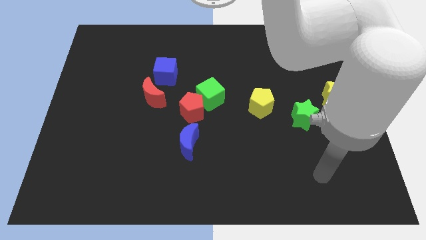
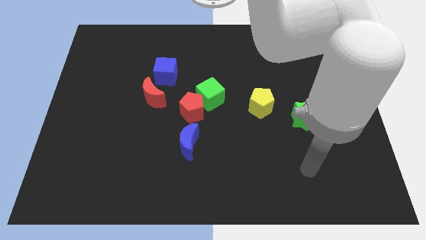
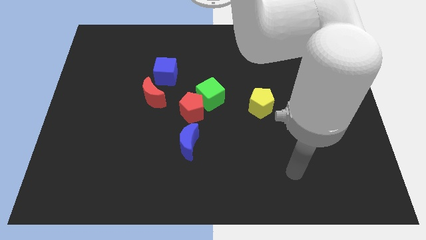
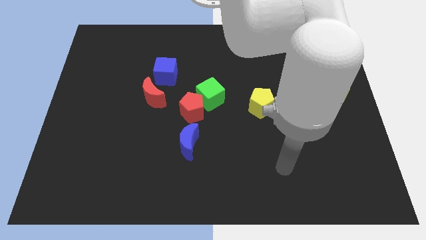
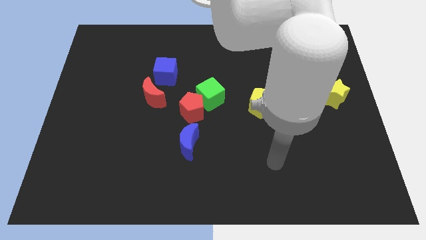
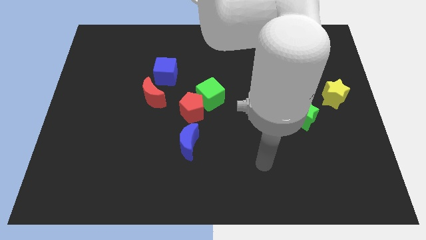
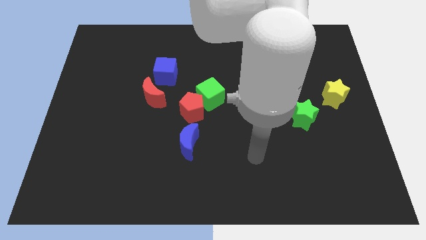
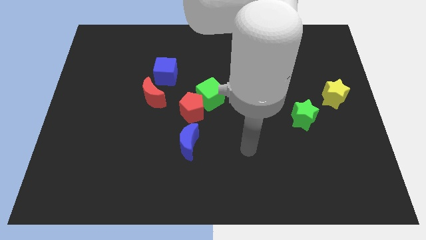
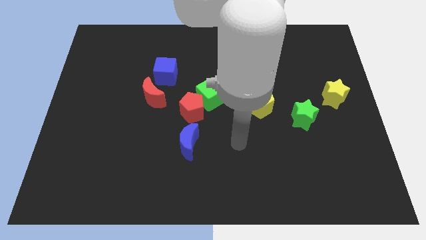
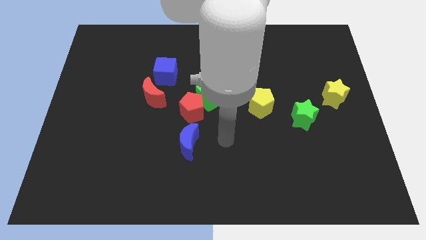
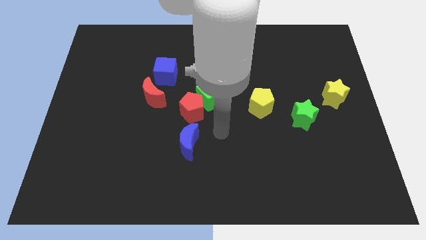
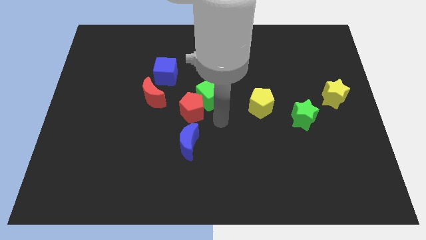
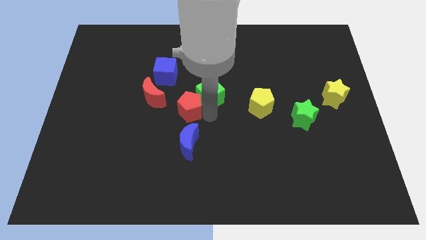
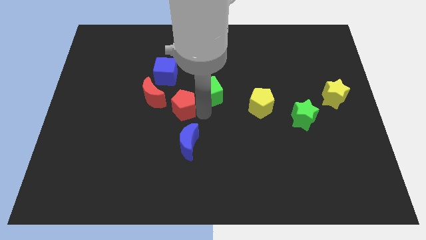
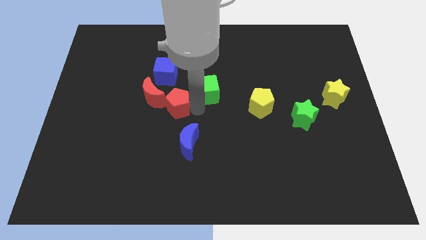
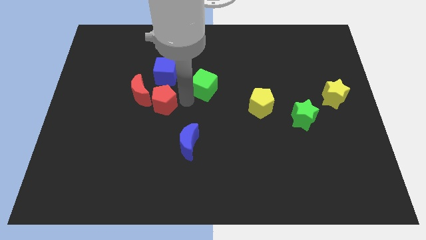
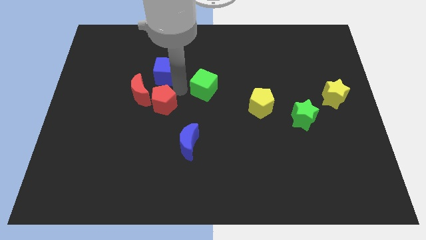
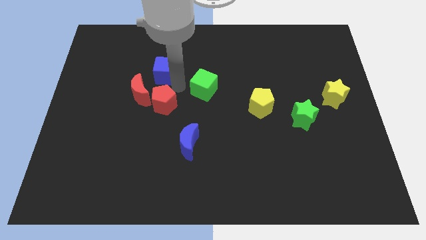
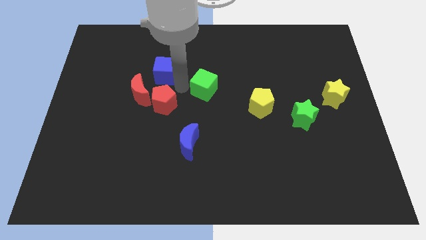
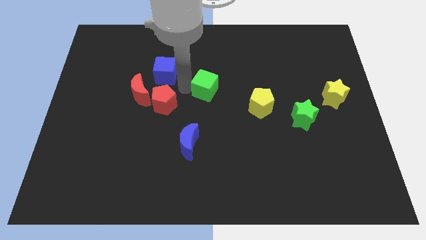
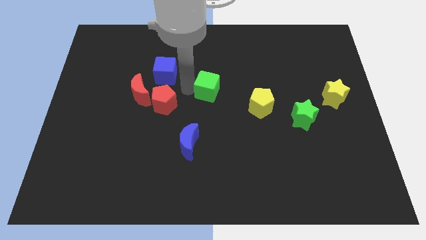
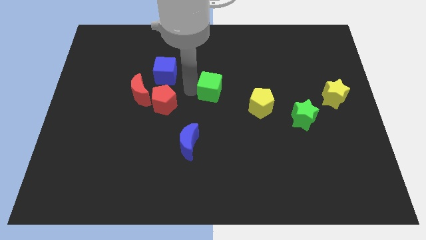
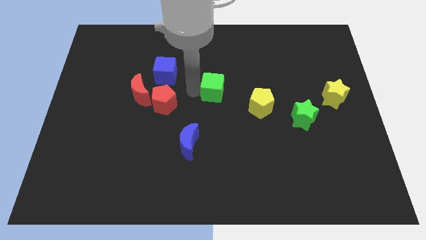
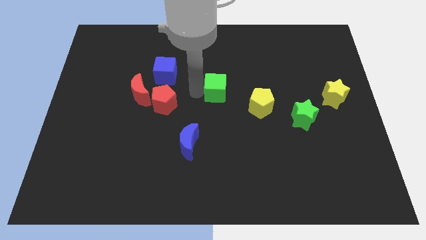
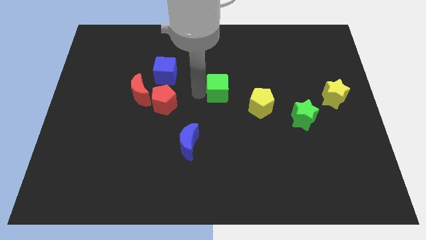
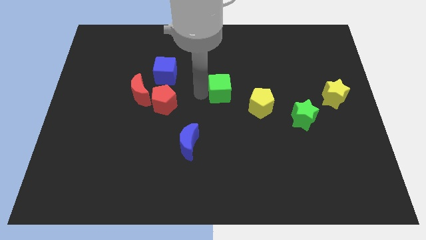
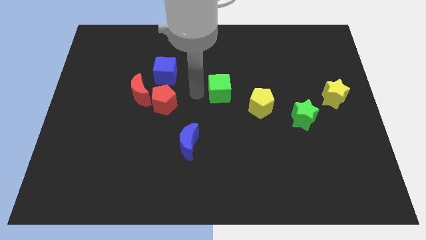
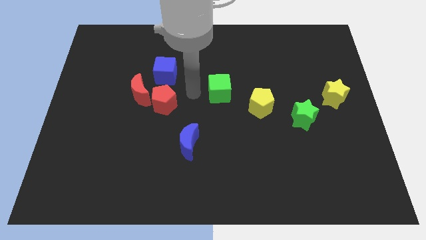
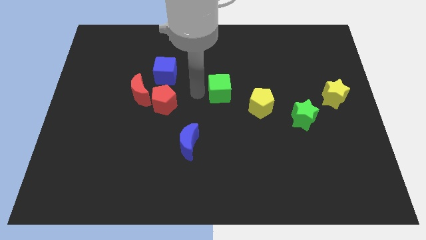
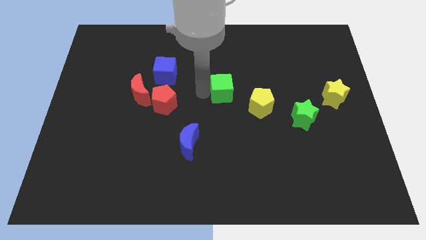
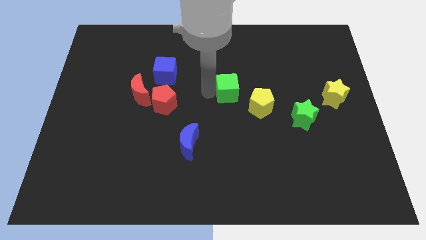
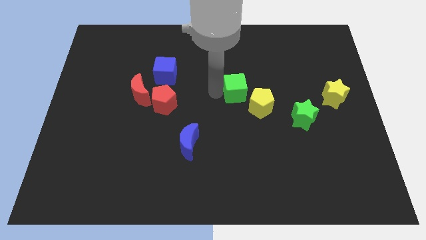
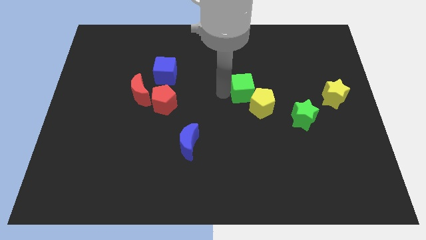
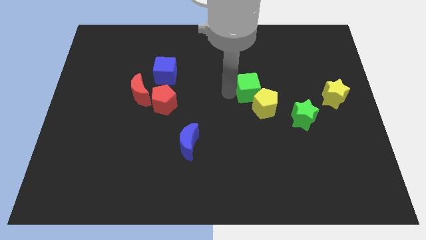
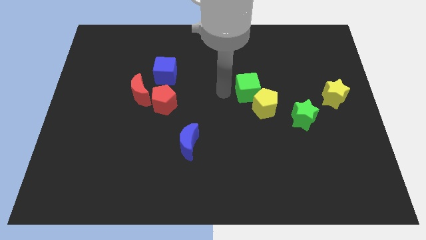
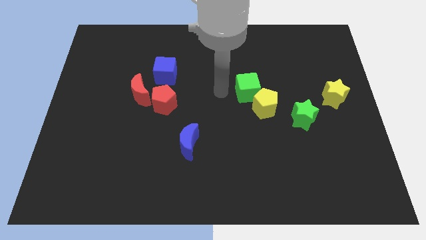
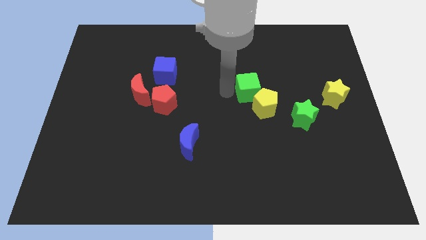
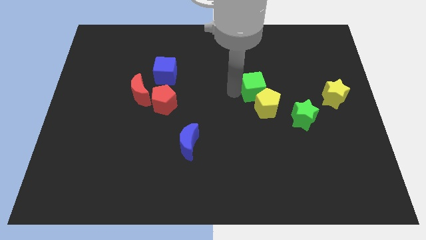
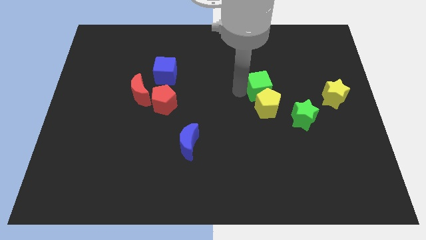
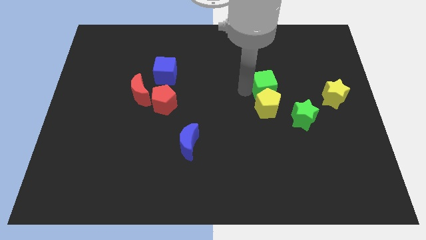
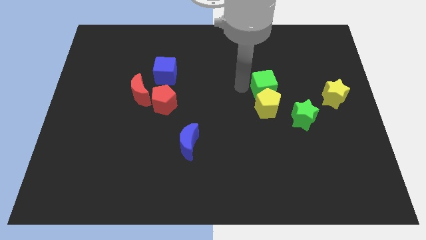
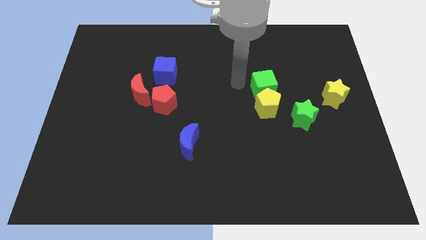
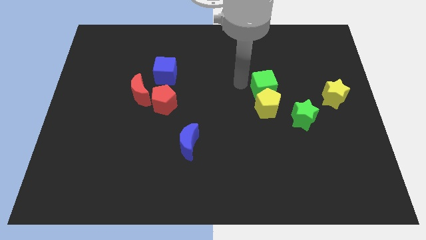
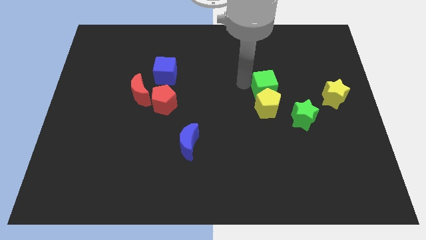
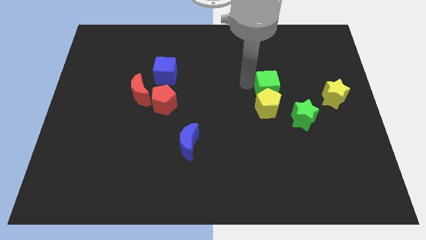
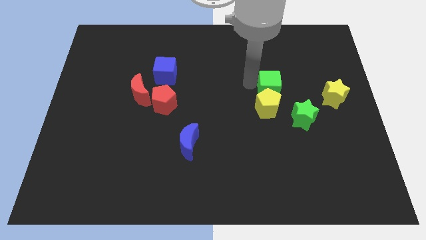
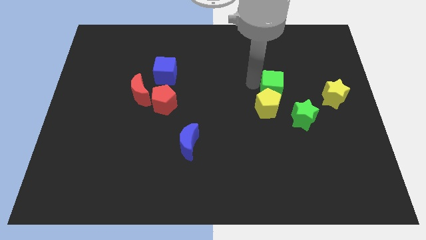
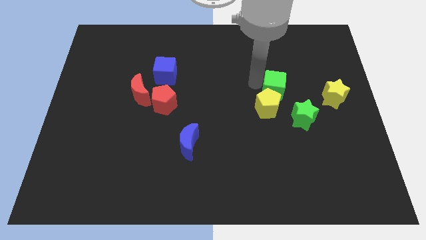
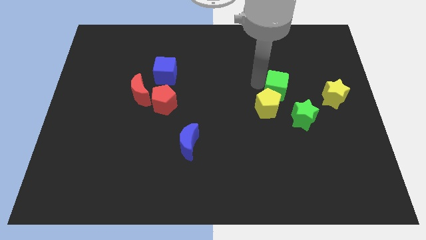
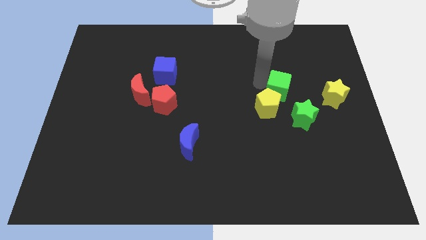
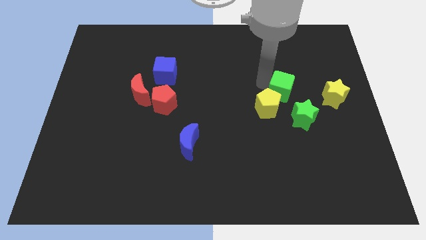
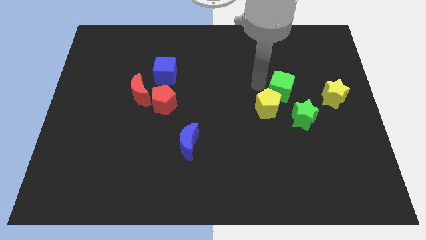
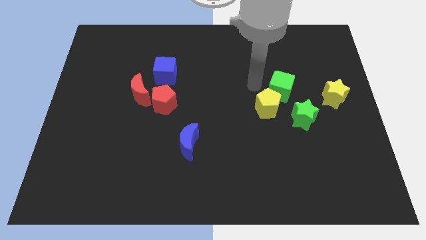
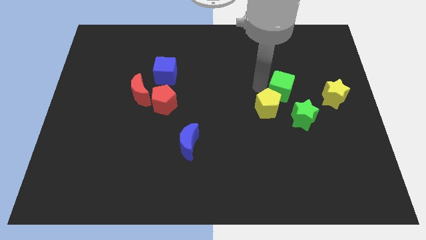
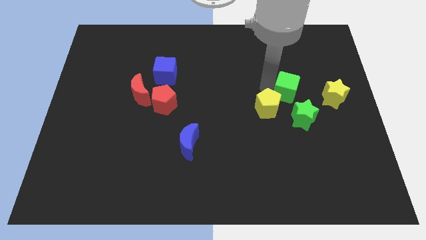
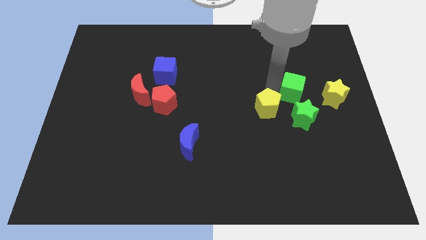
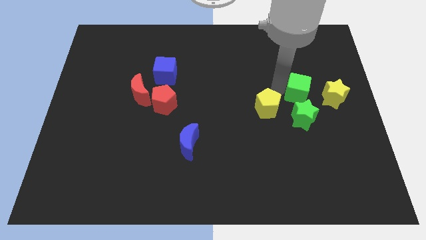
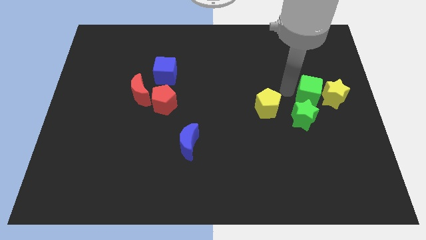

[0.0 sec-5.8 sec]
move the green cube next to the yellow star

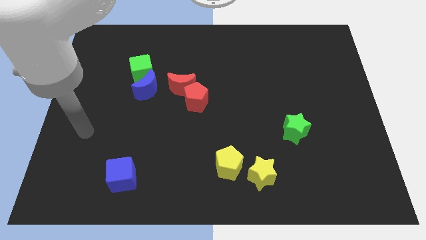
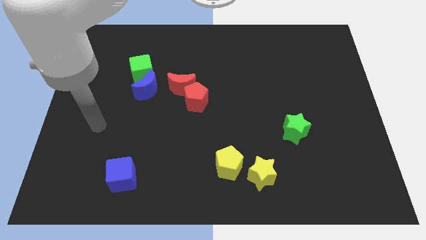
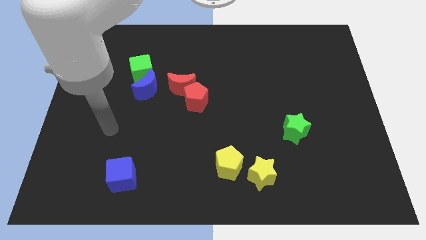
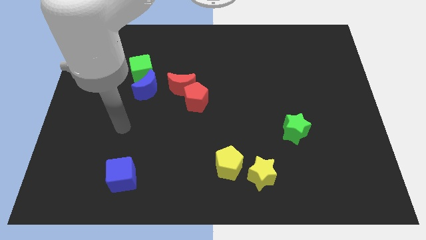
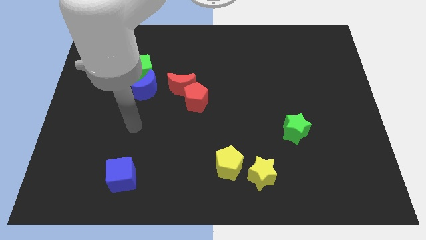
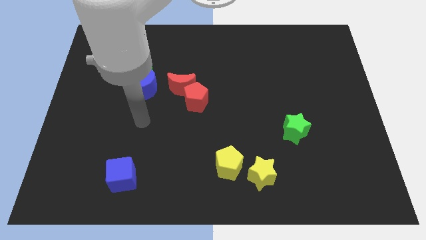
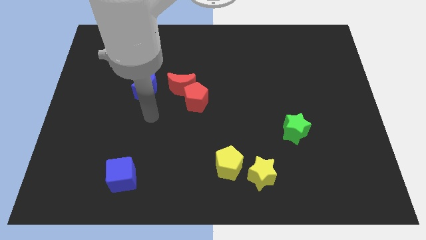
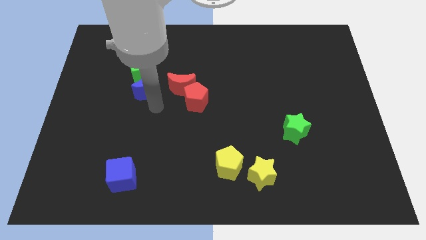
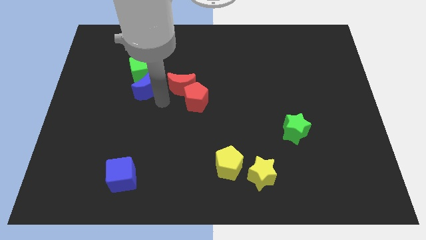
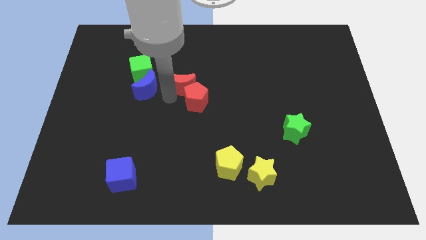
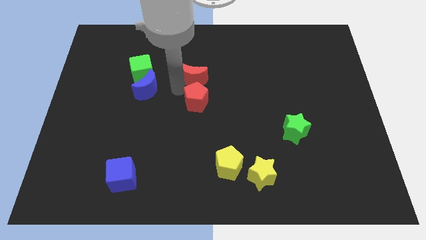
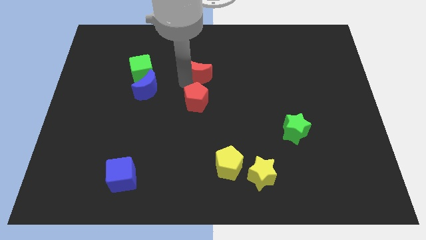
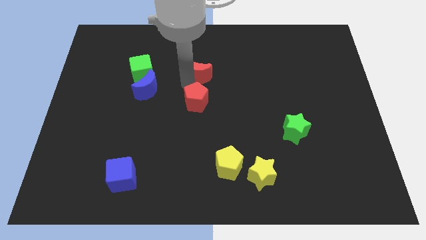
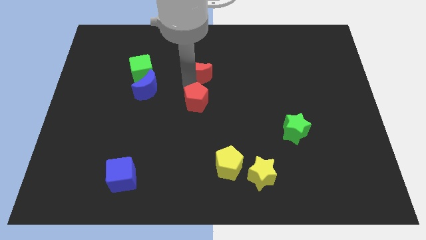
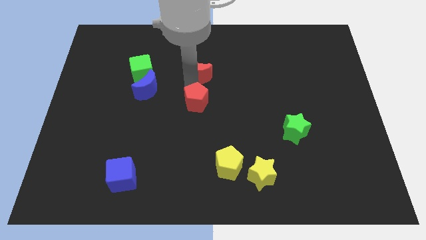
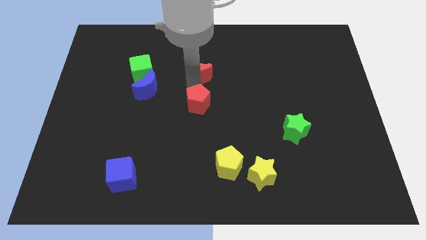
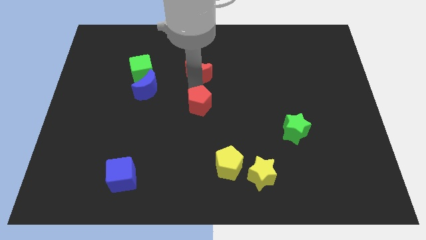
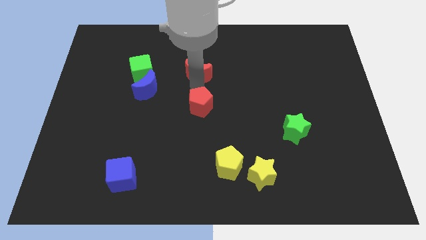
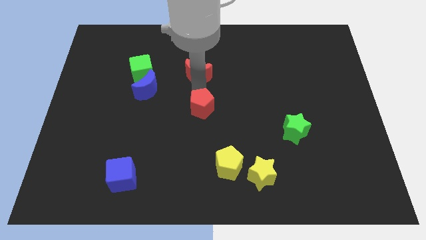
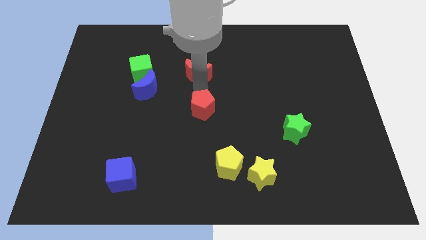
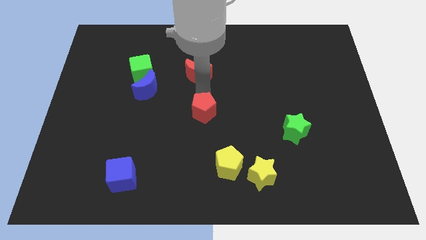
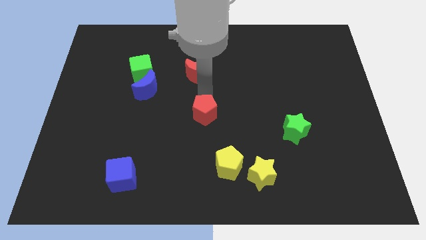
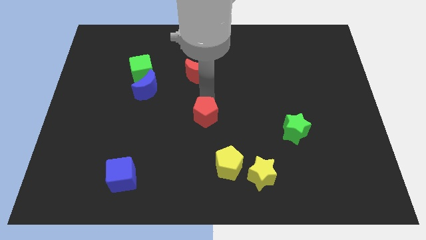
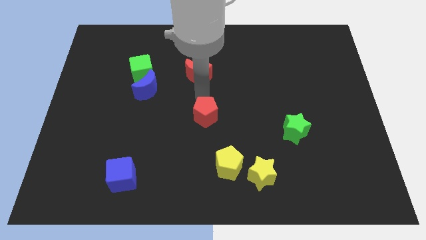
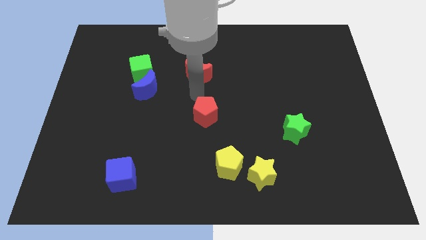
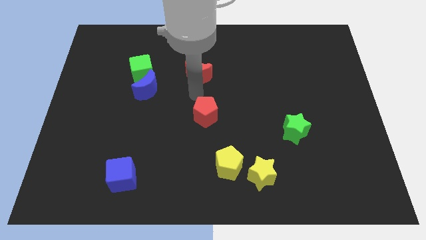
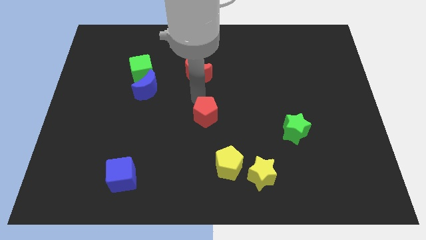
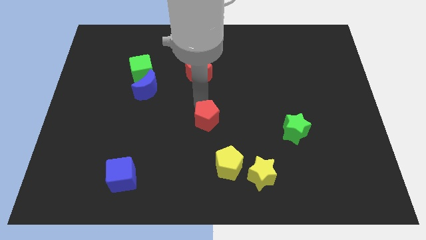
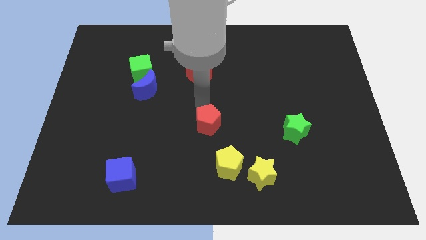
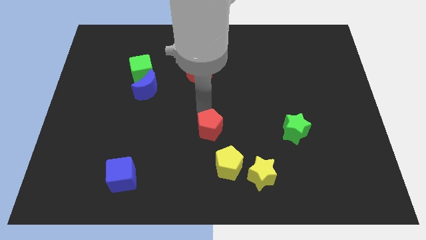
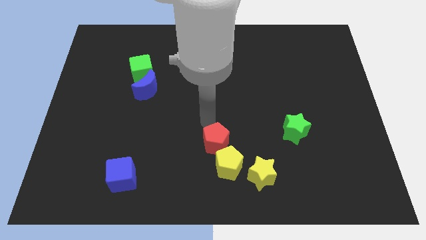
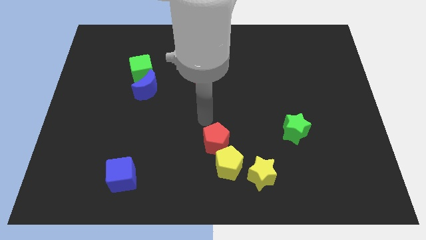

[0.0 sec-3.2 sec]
slide the red pentagon close to the yellow pentagon
